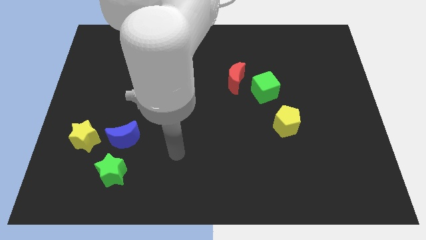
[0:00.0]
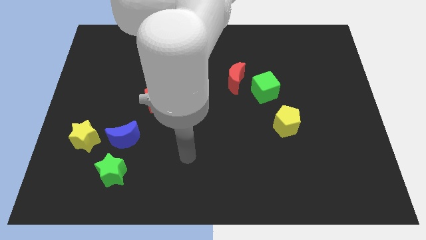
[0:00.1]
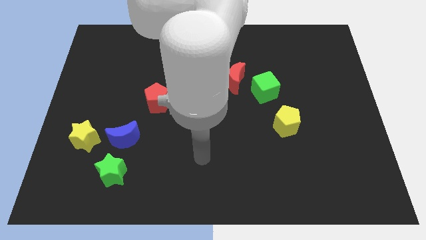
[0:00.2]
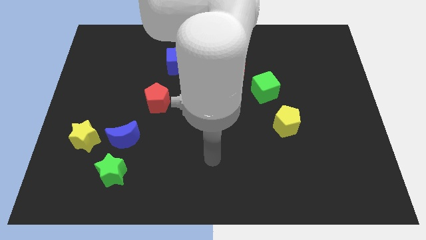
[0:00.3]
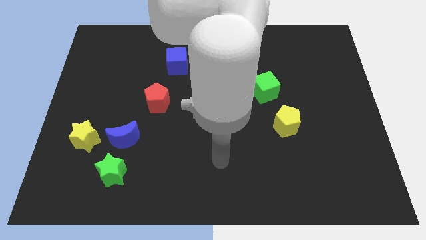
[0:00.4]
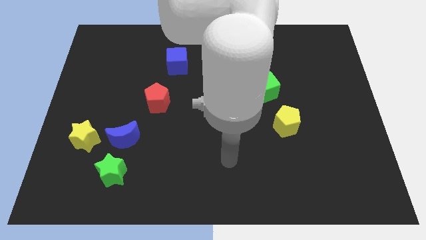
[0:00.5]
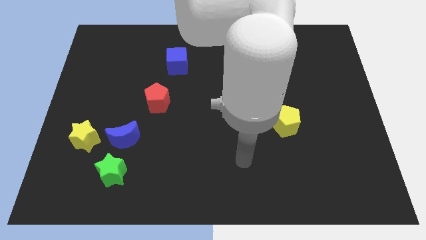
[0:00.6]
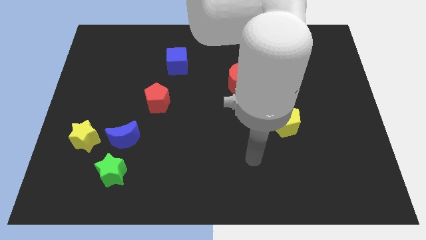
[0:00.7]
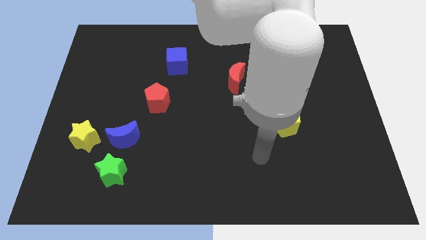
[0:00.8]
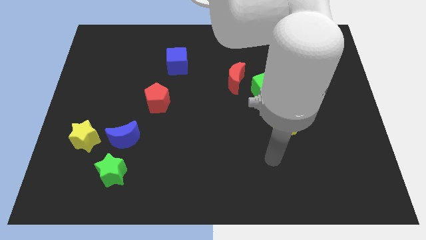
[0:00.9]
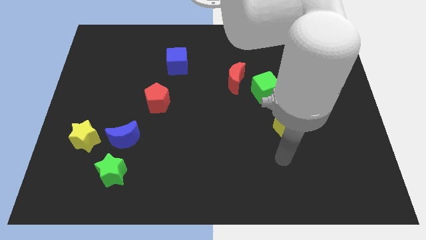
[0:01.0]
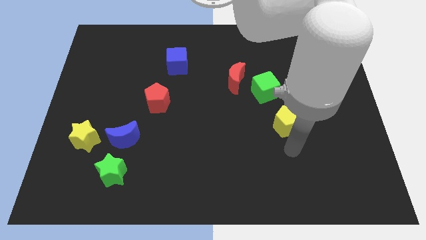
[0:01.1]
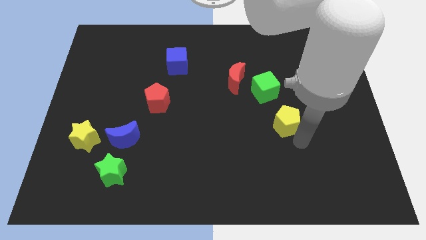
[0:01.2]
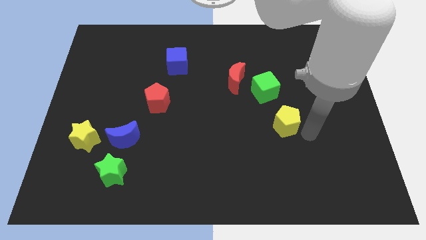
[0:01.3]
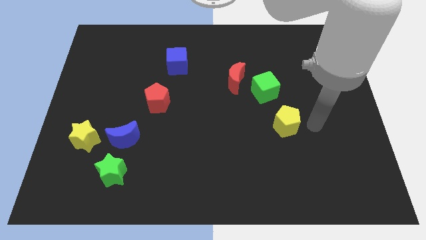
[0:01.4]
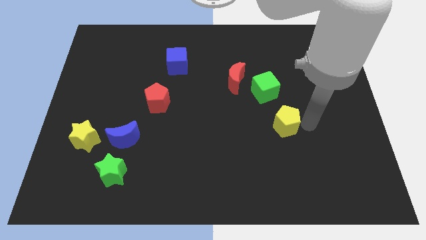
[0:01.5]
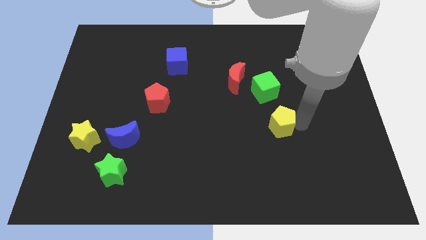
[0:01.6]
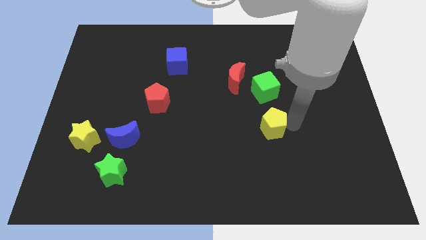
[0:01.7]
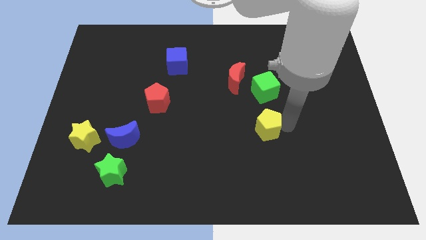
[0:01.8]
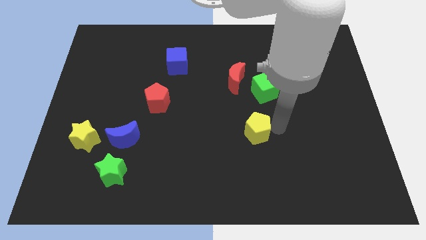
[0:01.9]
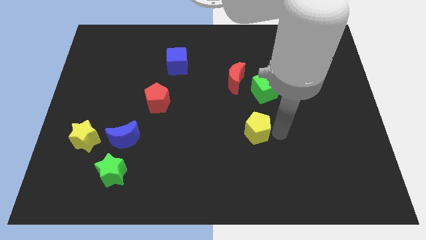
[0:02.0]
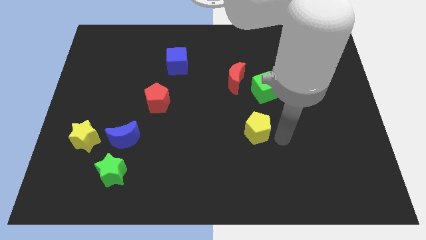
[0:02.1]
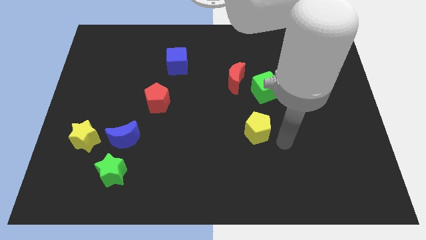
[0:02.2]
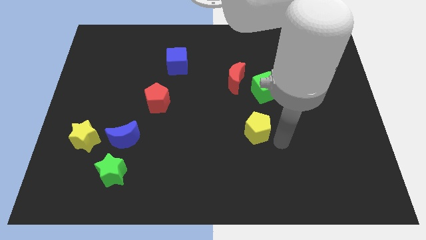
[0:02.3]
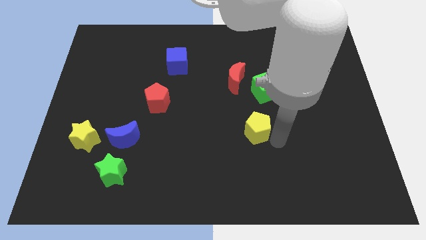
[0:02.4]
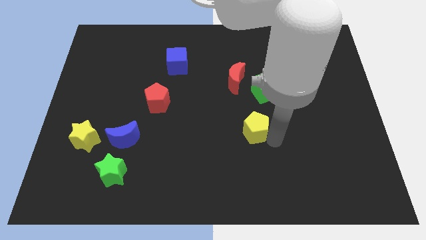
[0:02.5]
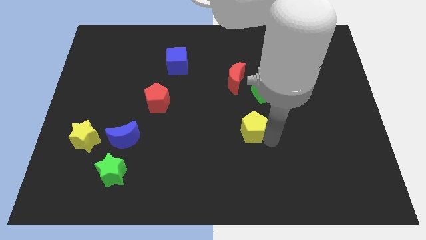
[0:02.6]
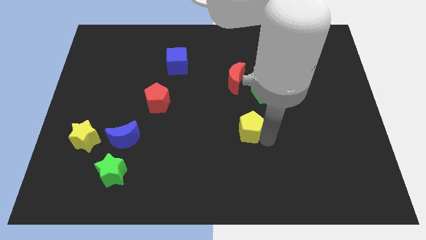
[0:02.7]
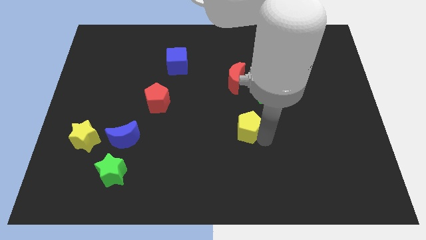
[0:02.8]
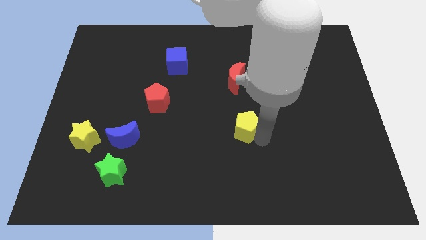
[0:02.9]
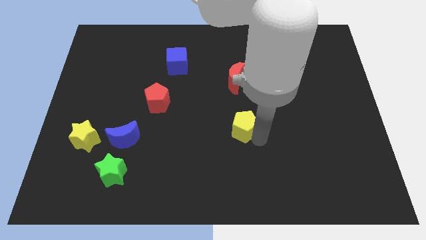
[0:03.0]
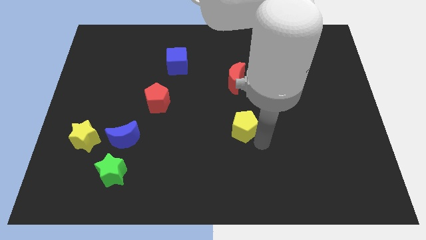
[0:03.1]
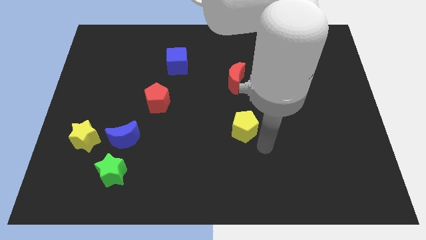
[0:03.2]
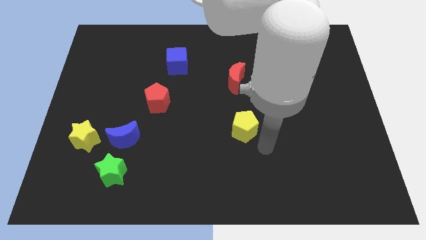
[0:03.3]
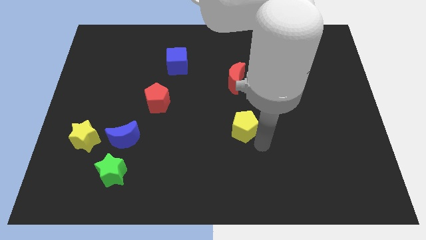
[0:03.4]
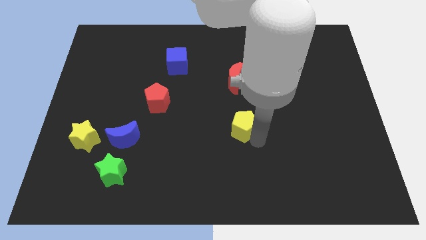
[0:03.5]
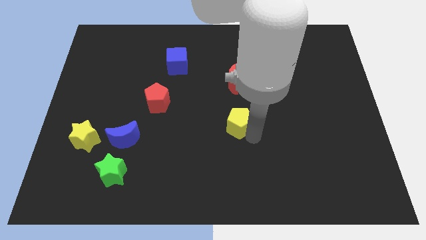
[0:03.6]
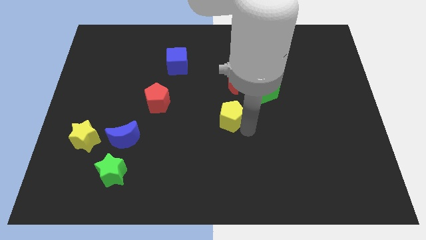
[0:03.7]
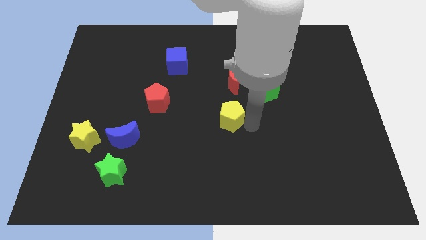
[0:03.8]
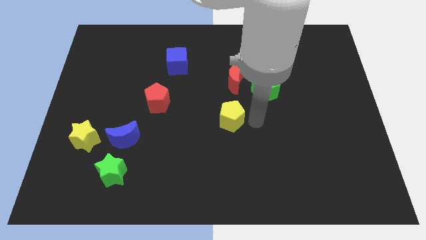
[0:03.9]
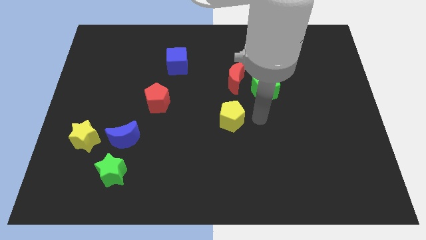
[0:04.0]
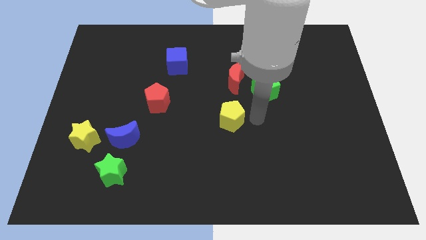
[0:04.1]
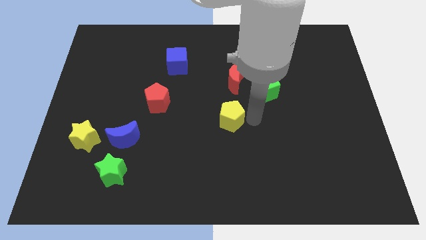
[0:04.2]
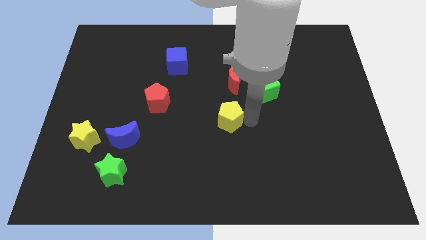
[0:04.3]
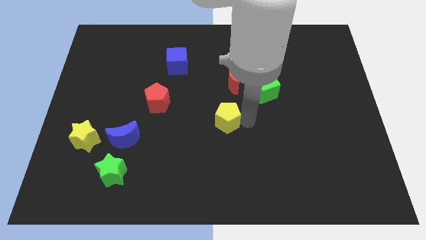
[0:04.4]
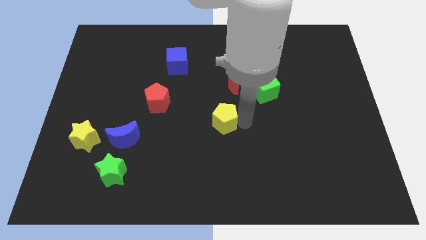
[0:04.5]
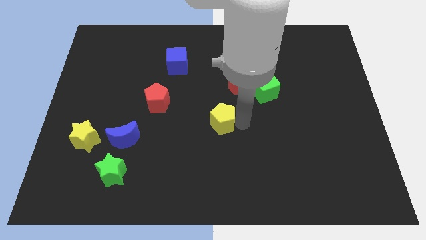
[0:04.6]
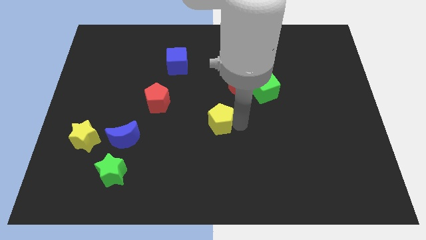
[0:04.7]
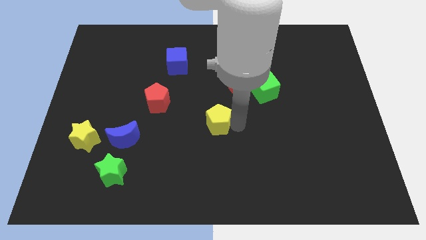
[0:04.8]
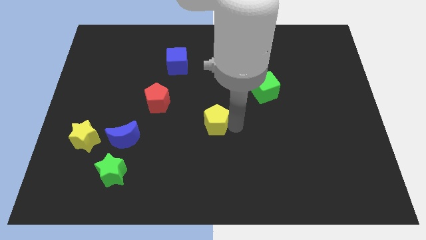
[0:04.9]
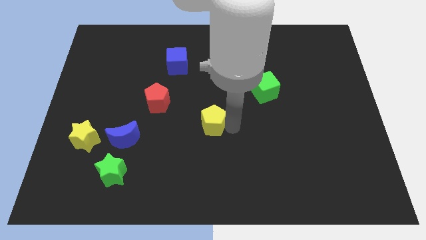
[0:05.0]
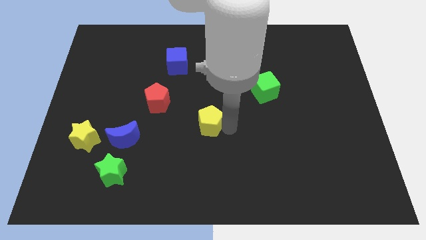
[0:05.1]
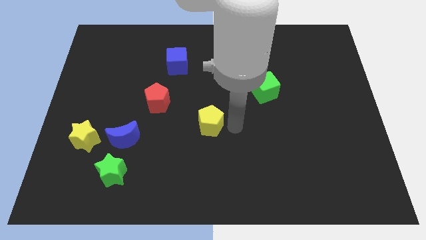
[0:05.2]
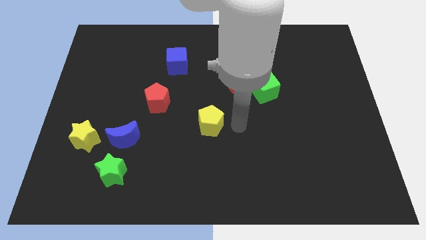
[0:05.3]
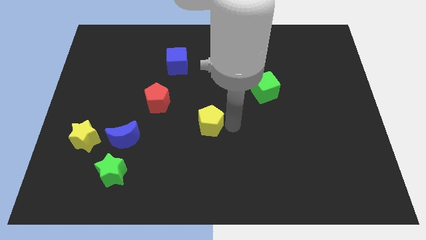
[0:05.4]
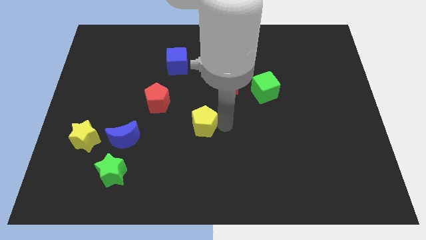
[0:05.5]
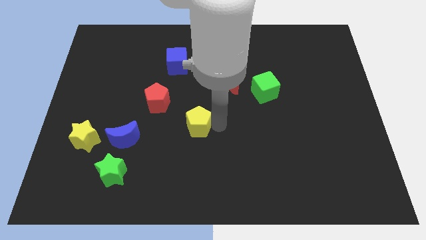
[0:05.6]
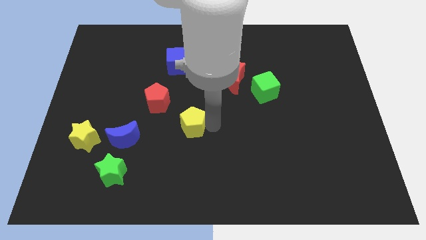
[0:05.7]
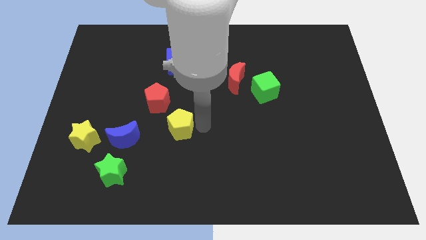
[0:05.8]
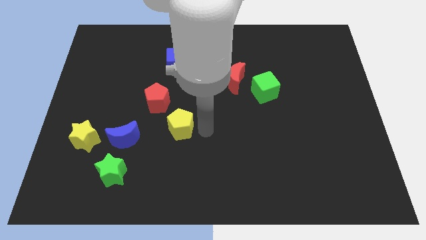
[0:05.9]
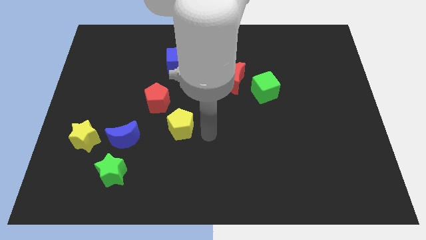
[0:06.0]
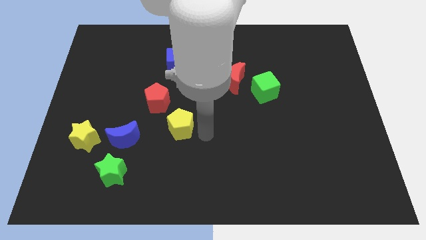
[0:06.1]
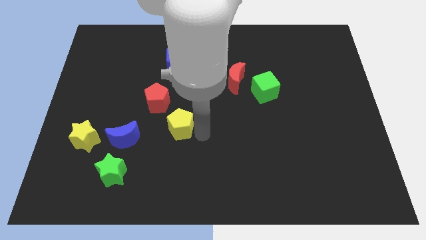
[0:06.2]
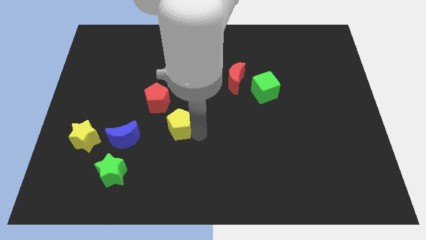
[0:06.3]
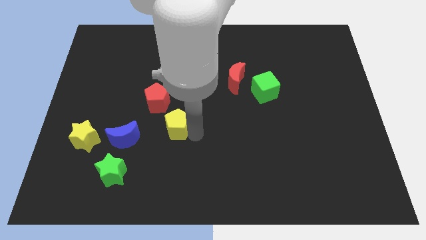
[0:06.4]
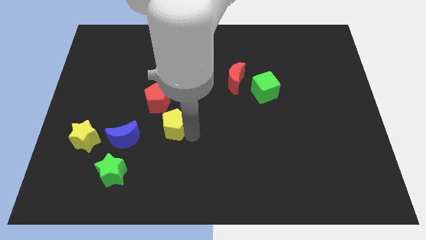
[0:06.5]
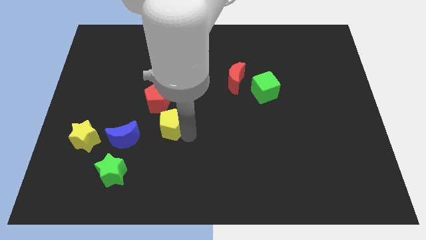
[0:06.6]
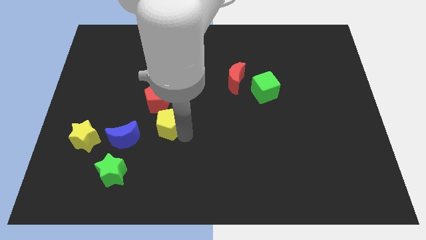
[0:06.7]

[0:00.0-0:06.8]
push the yellow pentagon diagonally up and to the right of the blue moon

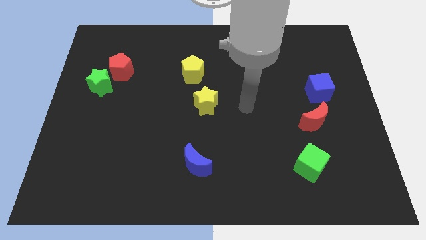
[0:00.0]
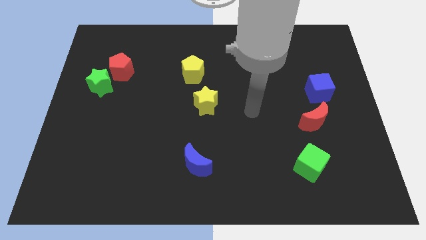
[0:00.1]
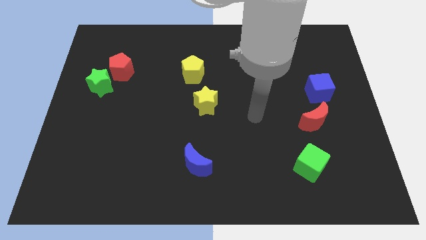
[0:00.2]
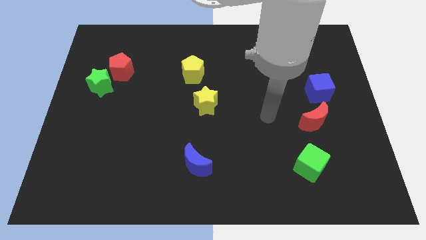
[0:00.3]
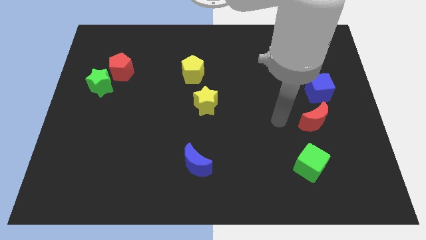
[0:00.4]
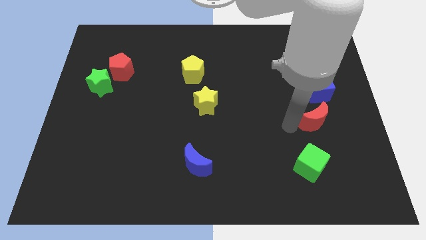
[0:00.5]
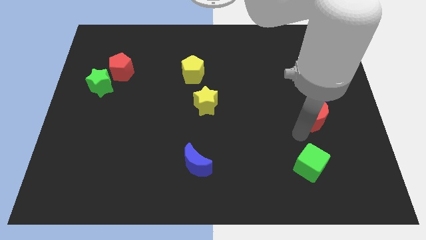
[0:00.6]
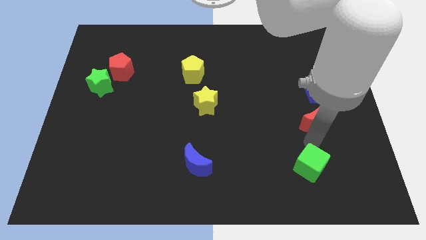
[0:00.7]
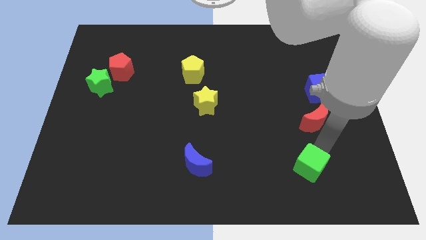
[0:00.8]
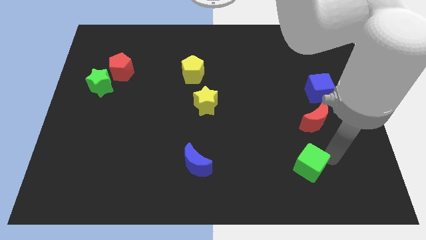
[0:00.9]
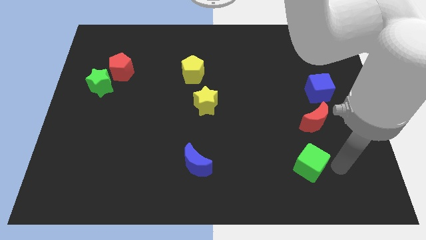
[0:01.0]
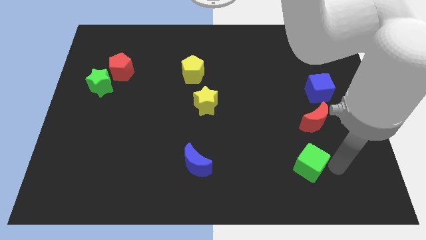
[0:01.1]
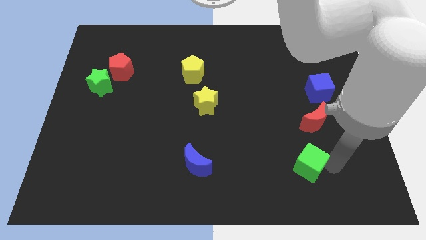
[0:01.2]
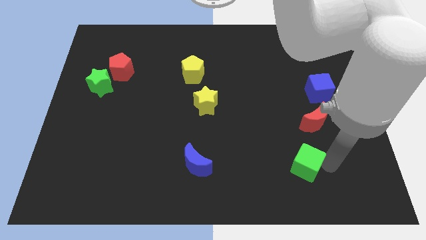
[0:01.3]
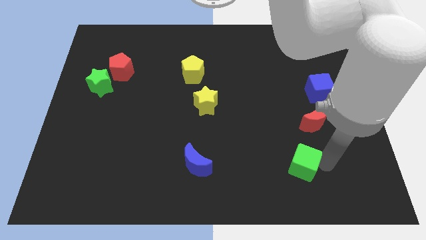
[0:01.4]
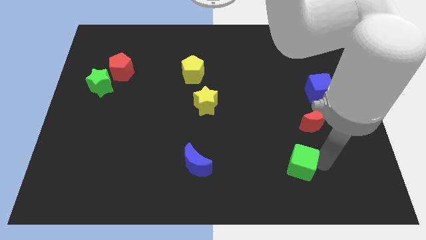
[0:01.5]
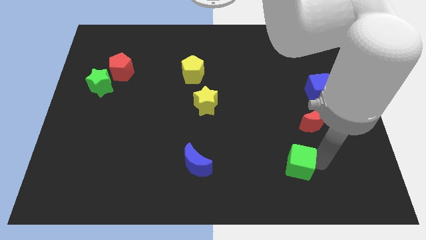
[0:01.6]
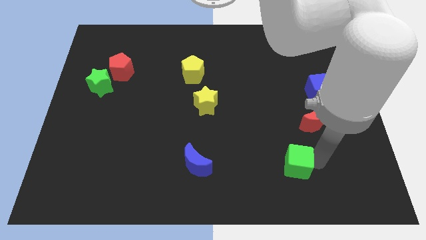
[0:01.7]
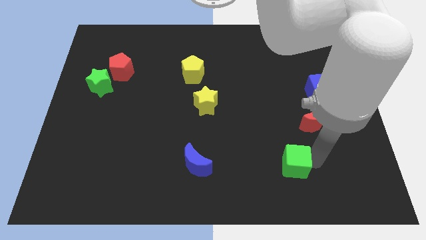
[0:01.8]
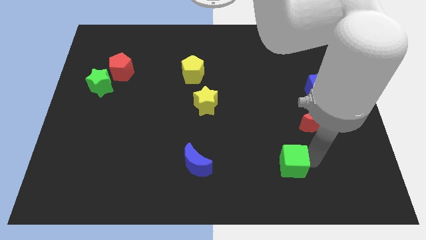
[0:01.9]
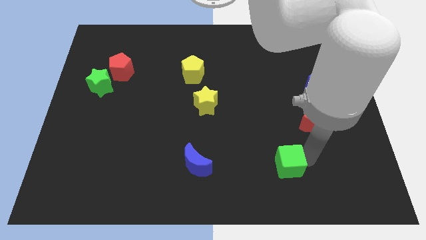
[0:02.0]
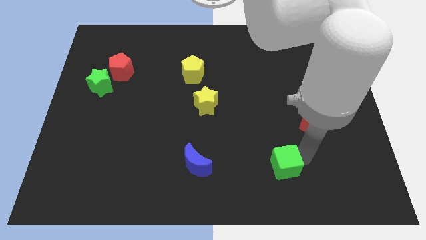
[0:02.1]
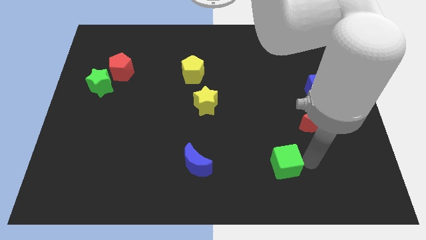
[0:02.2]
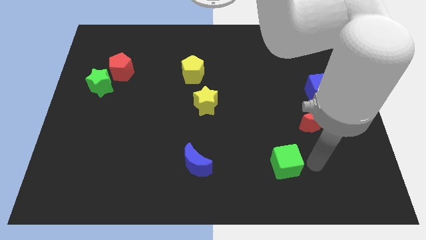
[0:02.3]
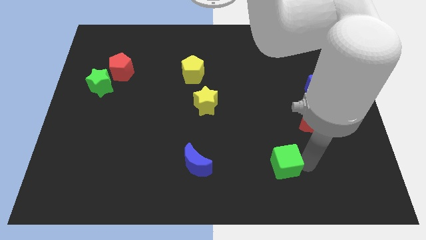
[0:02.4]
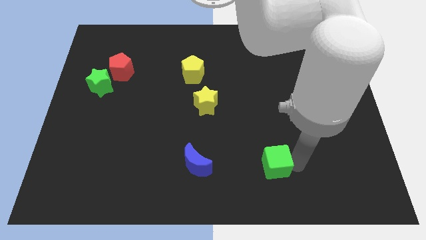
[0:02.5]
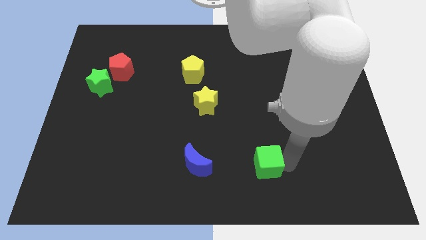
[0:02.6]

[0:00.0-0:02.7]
put the green cube just right of the blue moon
